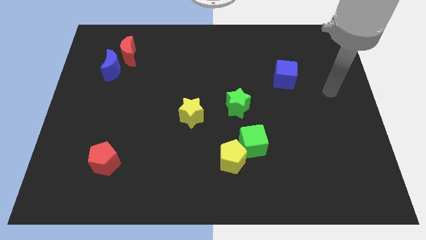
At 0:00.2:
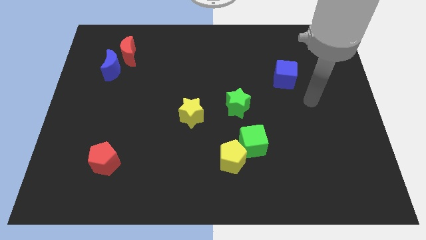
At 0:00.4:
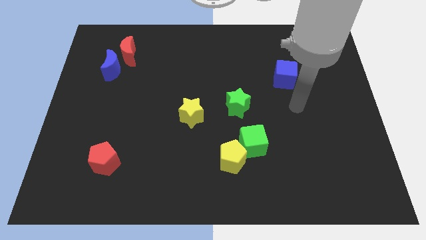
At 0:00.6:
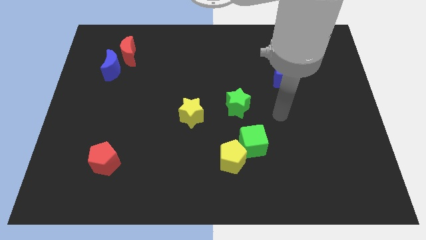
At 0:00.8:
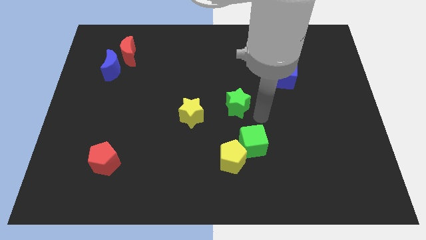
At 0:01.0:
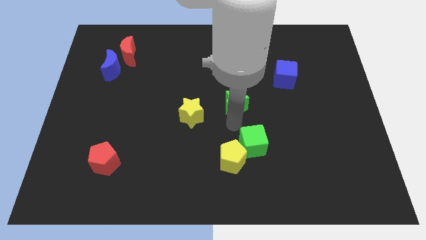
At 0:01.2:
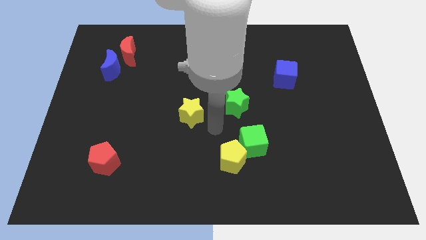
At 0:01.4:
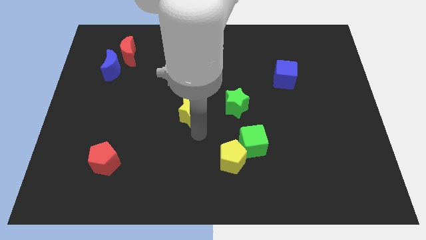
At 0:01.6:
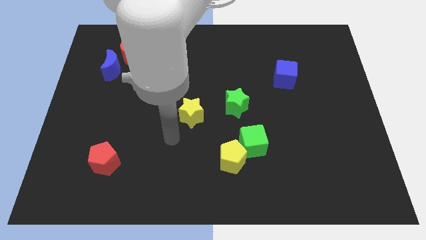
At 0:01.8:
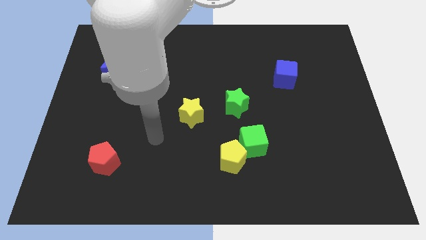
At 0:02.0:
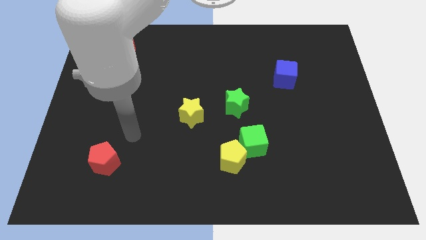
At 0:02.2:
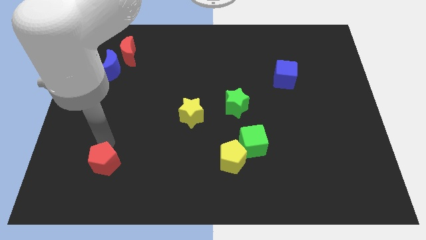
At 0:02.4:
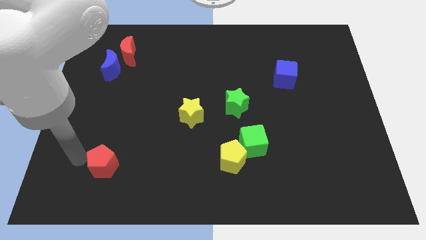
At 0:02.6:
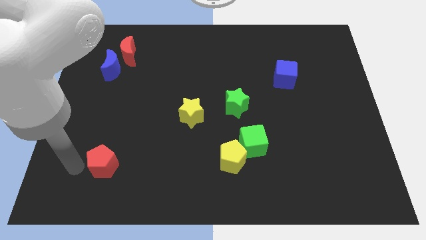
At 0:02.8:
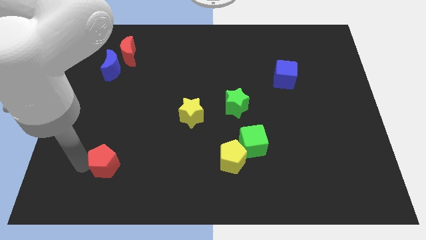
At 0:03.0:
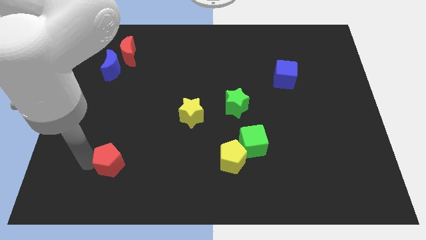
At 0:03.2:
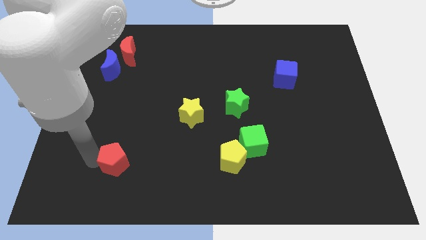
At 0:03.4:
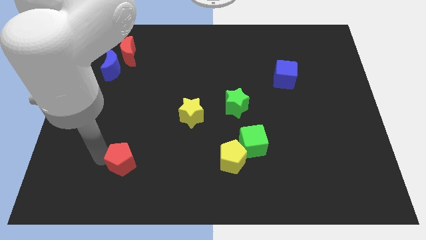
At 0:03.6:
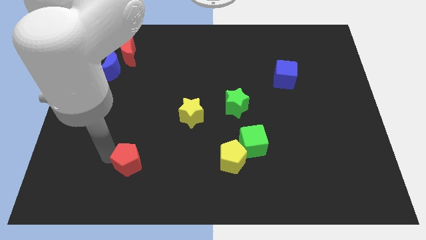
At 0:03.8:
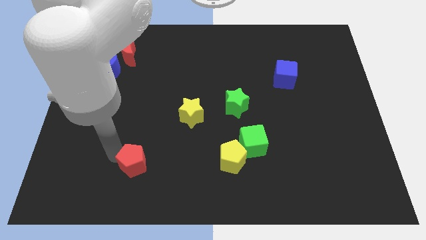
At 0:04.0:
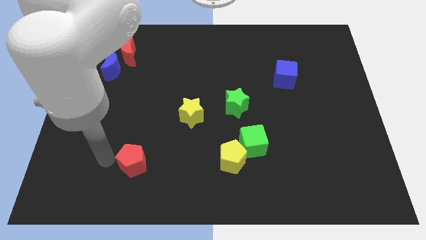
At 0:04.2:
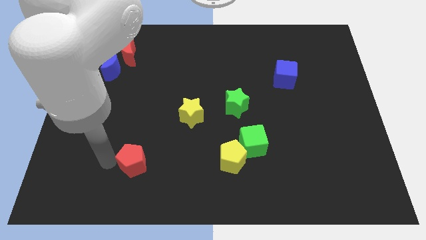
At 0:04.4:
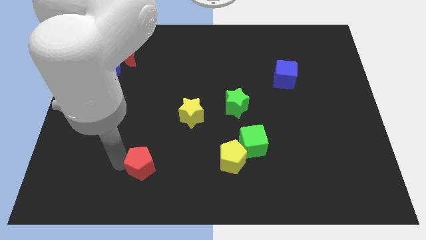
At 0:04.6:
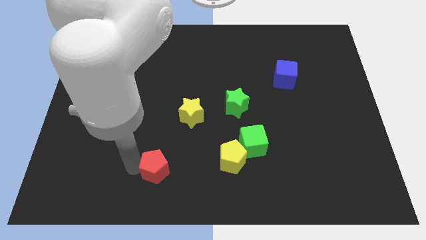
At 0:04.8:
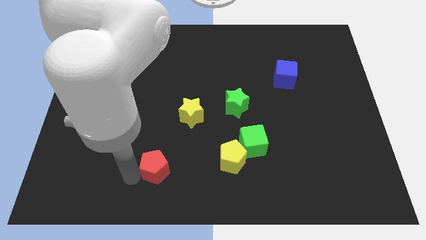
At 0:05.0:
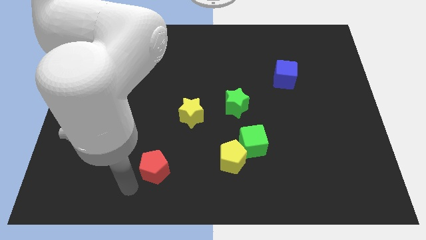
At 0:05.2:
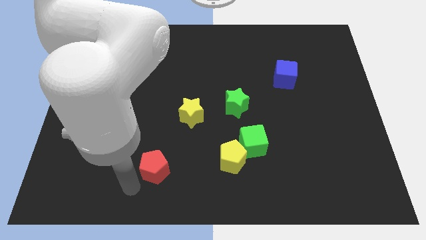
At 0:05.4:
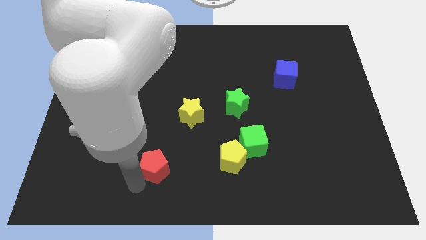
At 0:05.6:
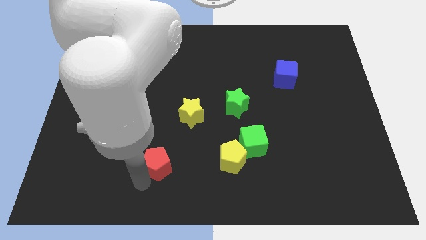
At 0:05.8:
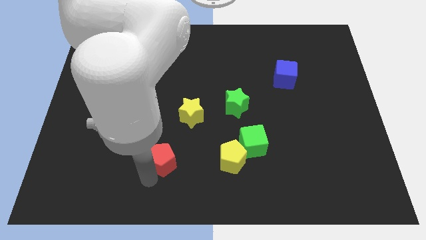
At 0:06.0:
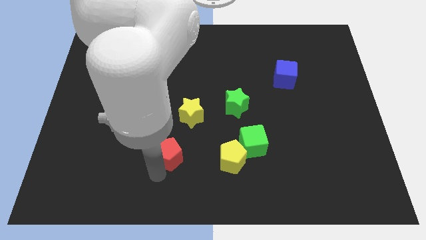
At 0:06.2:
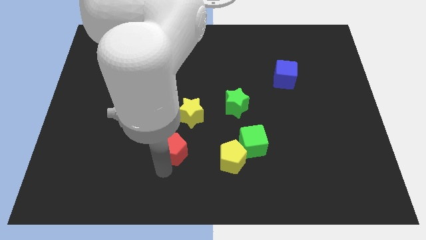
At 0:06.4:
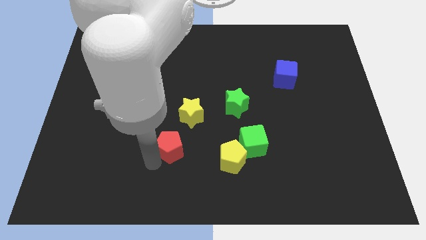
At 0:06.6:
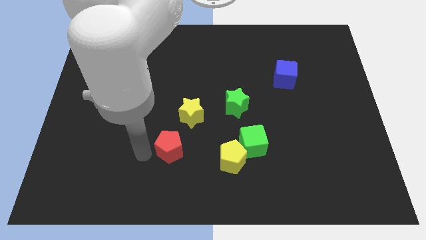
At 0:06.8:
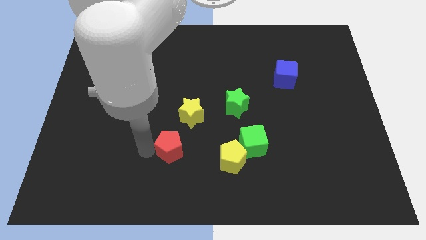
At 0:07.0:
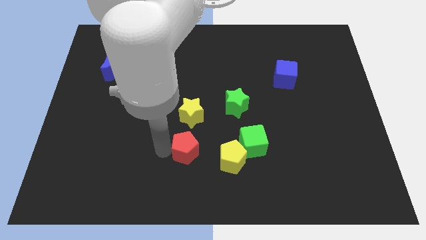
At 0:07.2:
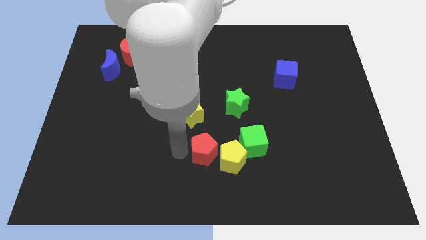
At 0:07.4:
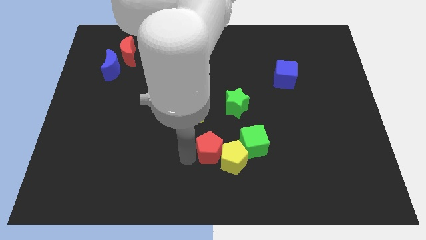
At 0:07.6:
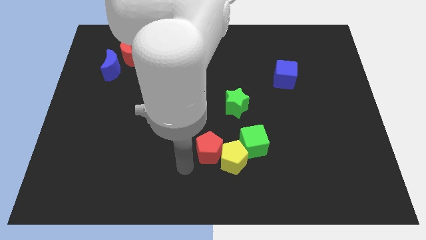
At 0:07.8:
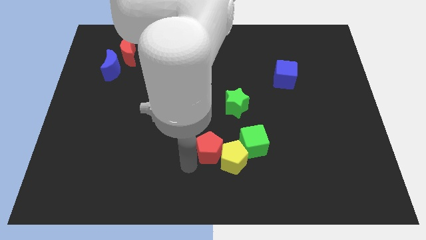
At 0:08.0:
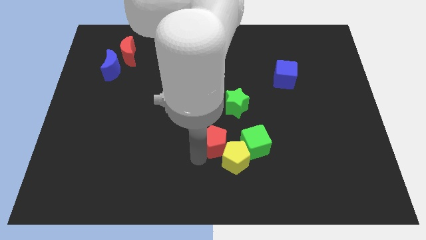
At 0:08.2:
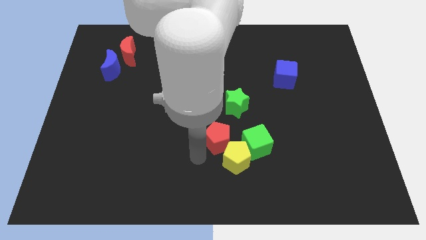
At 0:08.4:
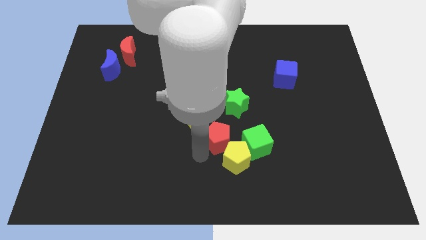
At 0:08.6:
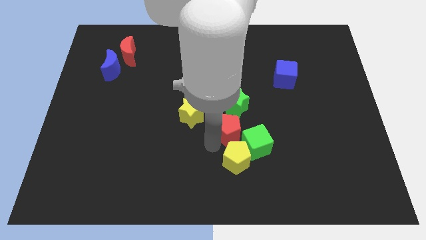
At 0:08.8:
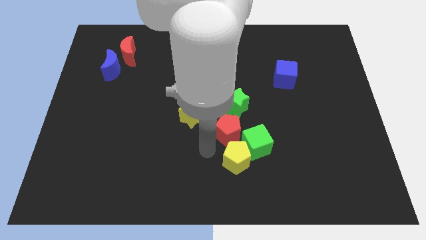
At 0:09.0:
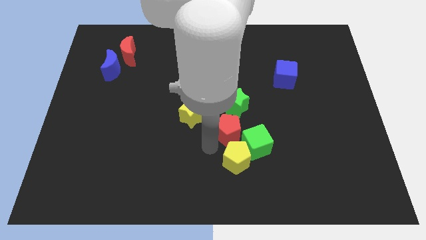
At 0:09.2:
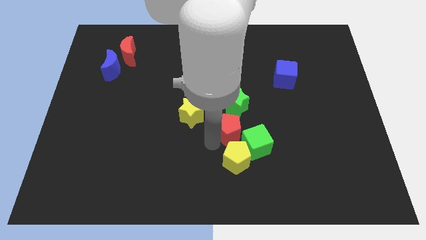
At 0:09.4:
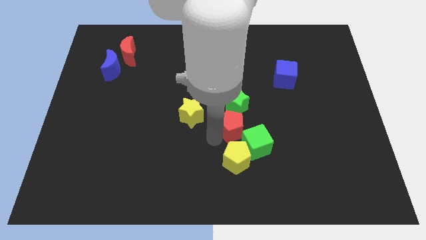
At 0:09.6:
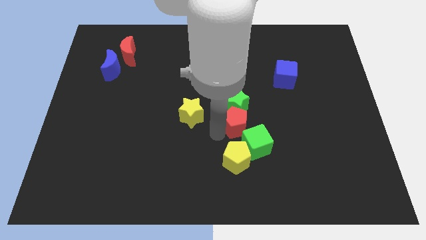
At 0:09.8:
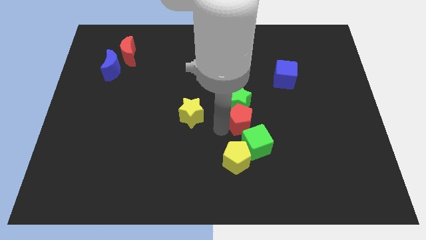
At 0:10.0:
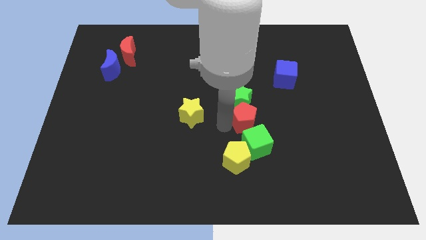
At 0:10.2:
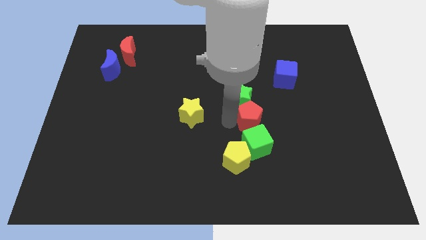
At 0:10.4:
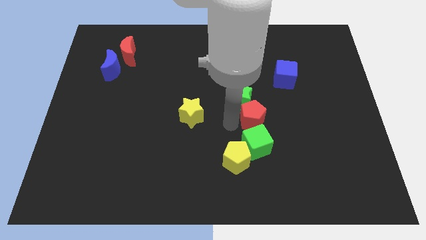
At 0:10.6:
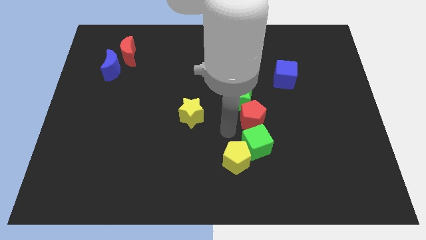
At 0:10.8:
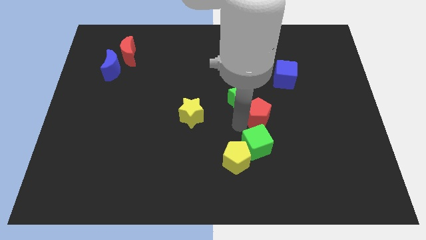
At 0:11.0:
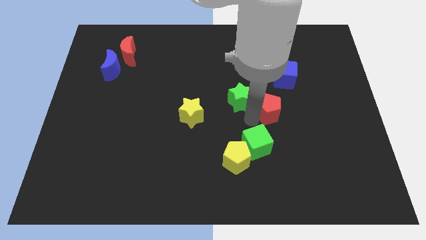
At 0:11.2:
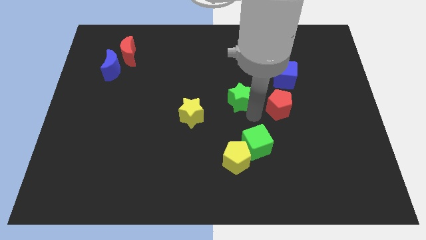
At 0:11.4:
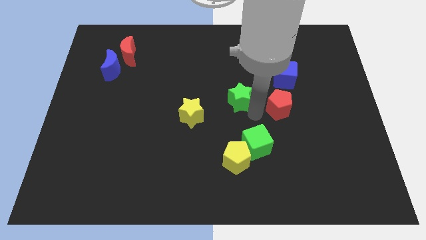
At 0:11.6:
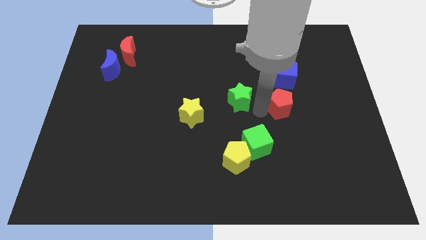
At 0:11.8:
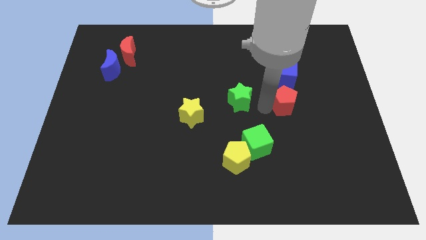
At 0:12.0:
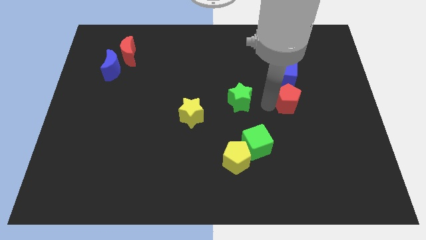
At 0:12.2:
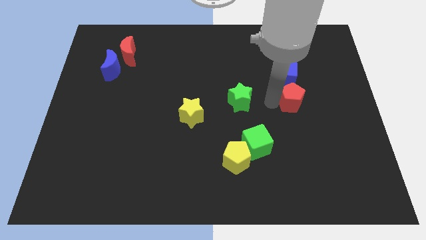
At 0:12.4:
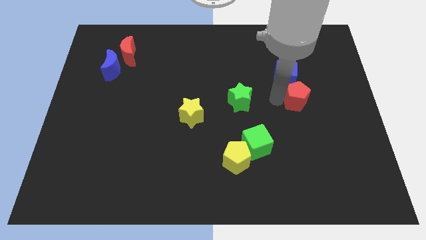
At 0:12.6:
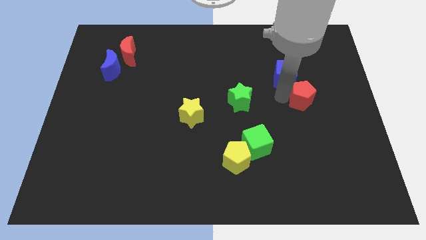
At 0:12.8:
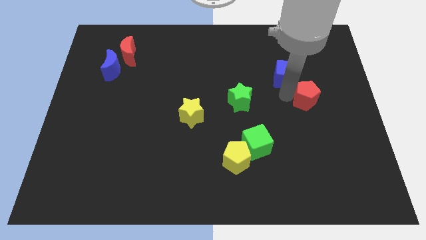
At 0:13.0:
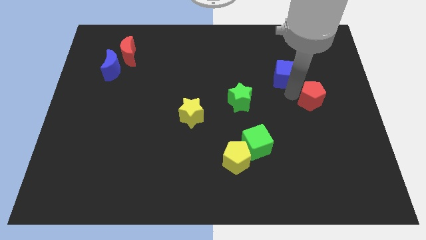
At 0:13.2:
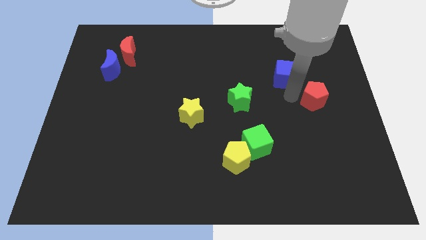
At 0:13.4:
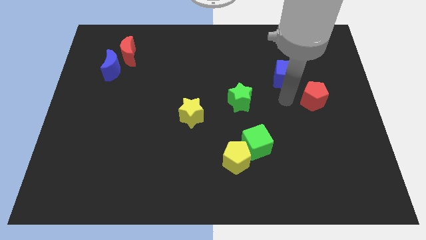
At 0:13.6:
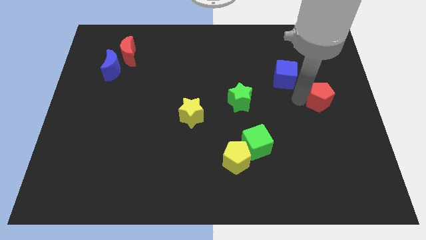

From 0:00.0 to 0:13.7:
put the red pentagon to the right side of the board
